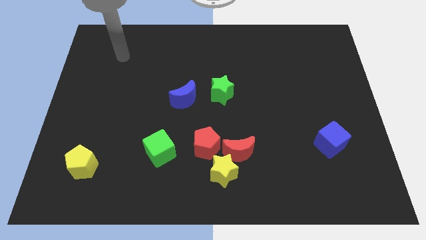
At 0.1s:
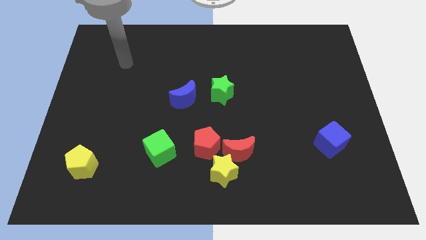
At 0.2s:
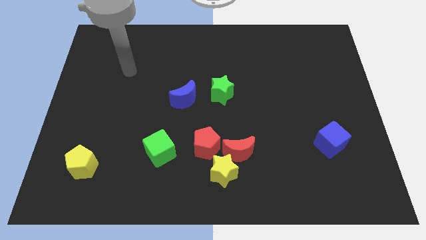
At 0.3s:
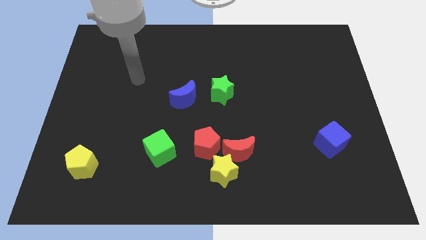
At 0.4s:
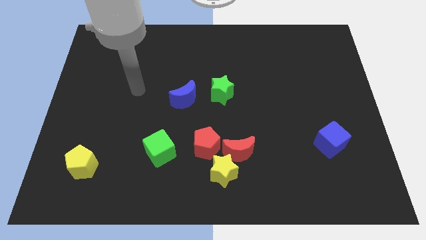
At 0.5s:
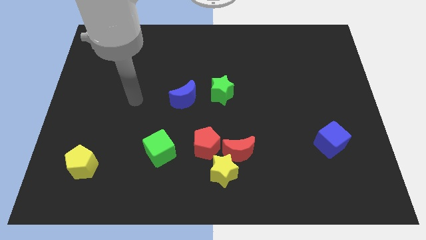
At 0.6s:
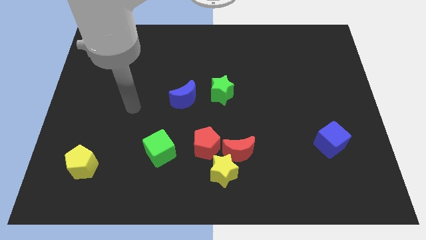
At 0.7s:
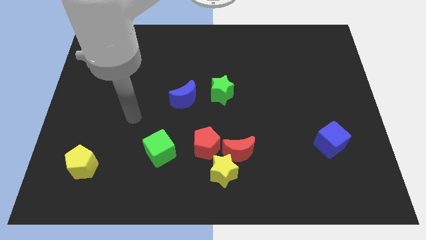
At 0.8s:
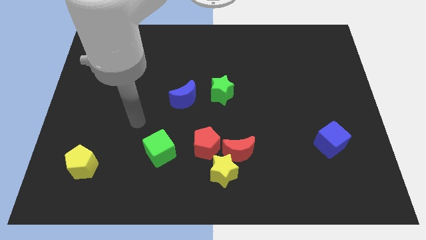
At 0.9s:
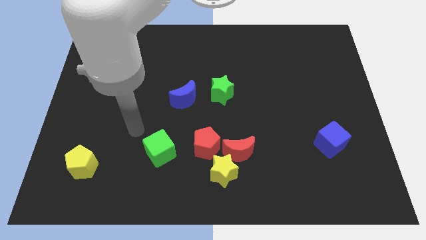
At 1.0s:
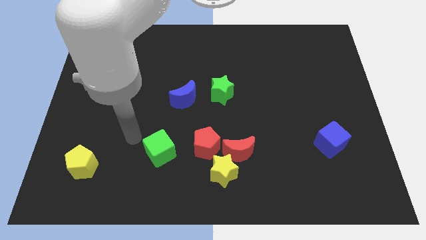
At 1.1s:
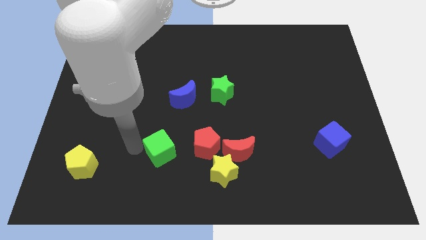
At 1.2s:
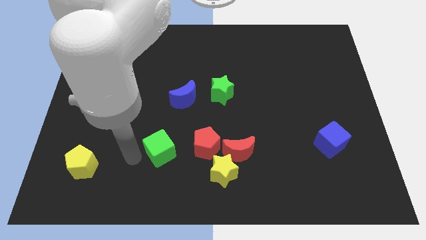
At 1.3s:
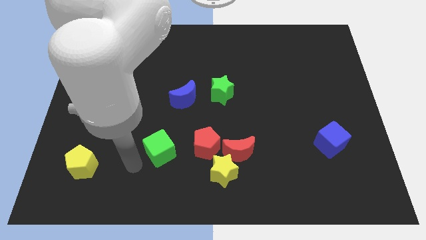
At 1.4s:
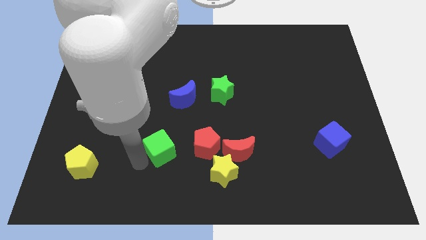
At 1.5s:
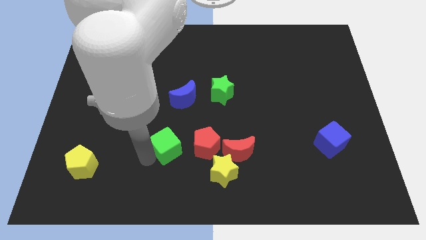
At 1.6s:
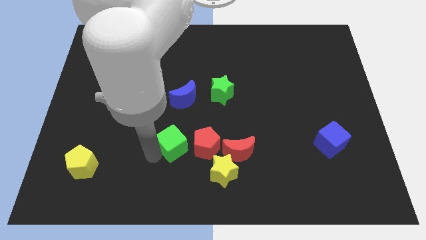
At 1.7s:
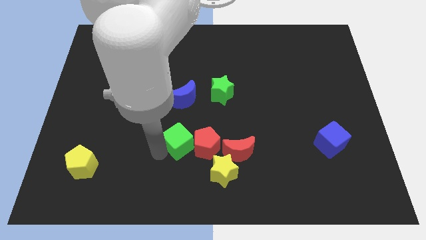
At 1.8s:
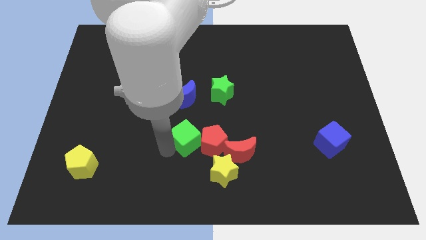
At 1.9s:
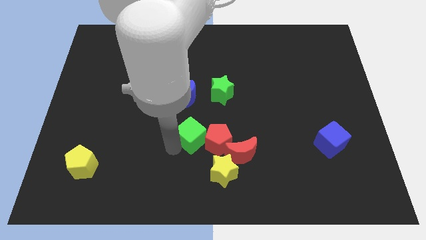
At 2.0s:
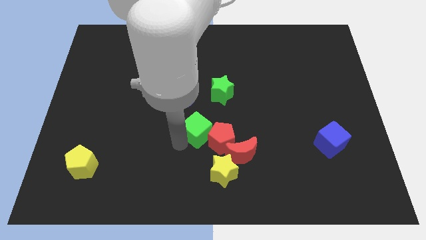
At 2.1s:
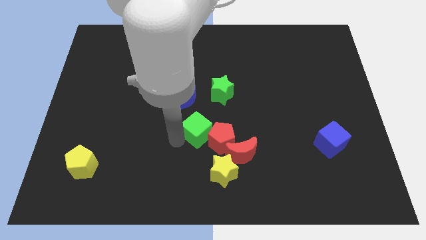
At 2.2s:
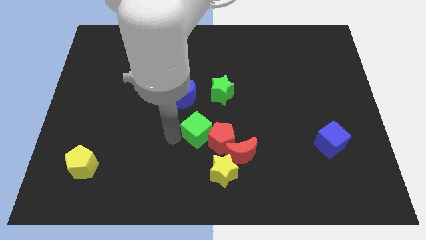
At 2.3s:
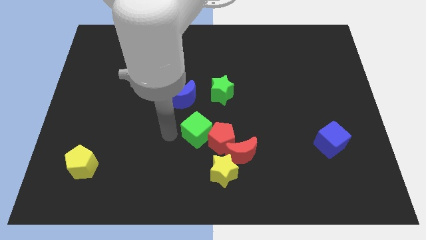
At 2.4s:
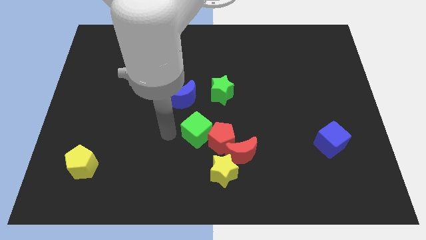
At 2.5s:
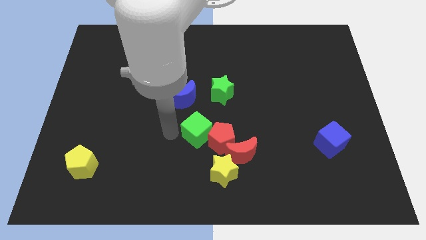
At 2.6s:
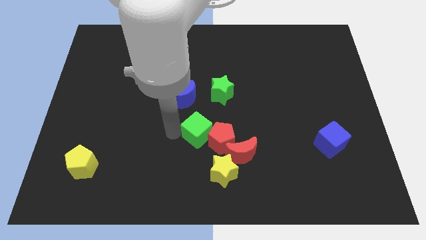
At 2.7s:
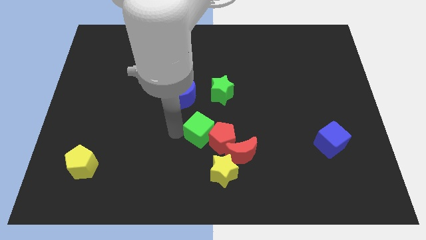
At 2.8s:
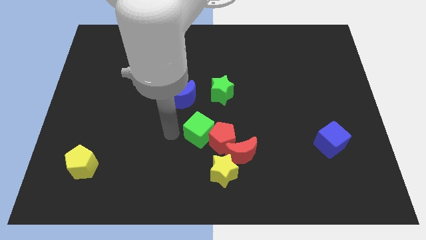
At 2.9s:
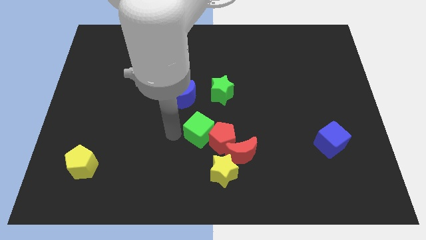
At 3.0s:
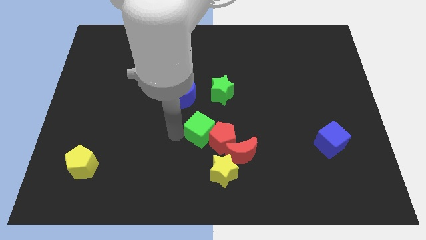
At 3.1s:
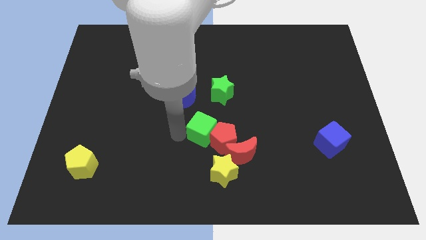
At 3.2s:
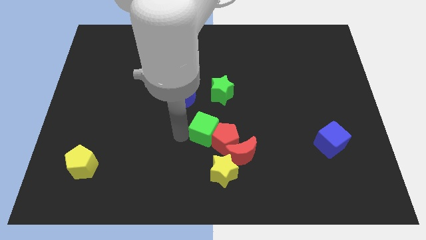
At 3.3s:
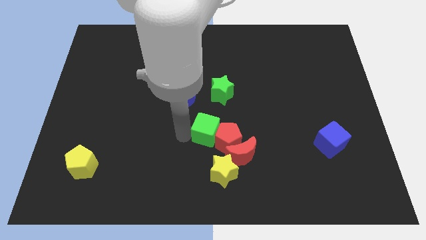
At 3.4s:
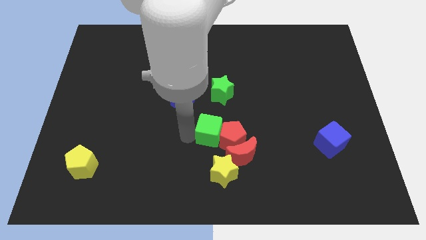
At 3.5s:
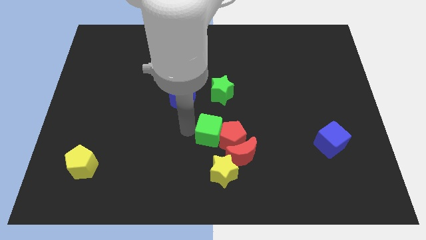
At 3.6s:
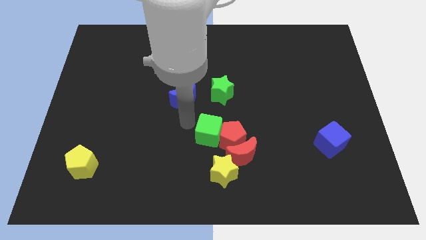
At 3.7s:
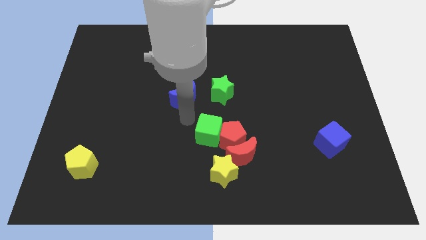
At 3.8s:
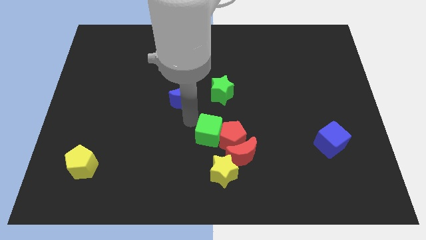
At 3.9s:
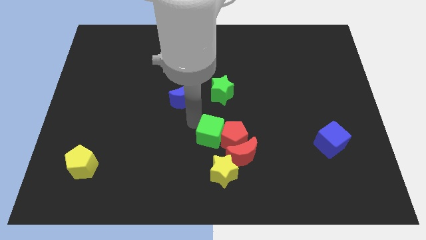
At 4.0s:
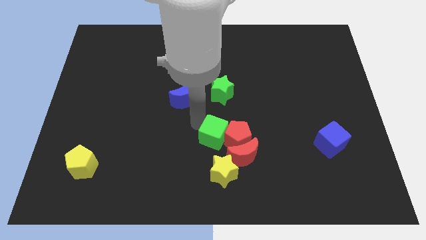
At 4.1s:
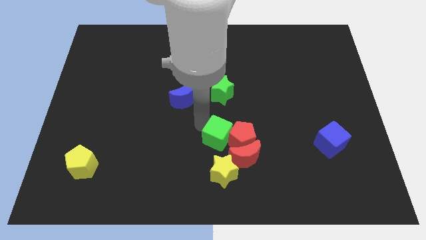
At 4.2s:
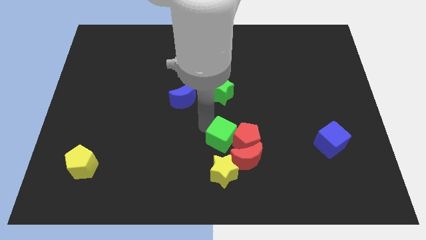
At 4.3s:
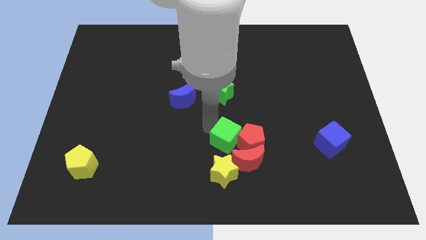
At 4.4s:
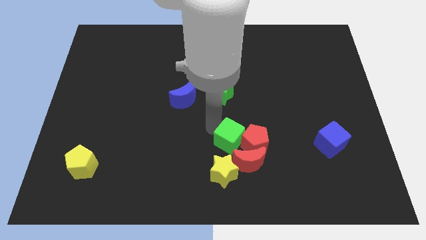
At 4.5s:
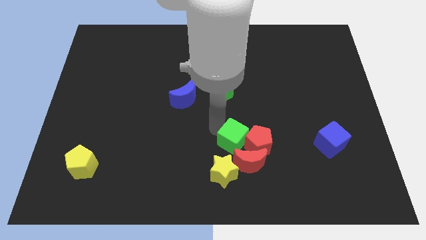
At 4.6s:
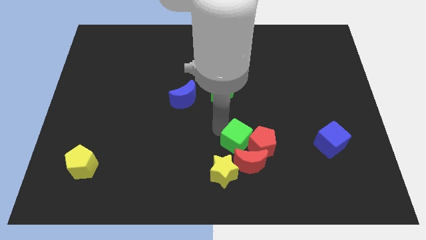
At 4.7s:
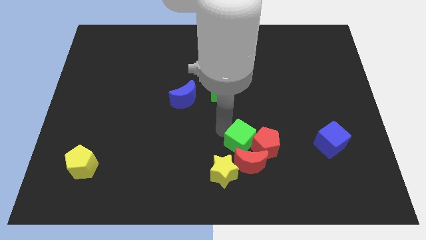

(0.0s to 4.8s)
push the green cube to the red moon

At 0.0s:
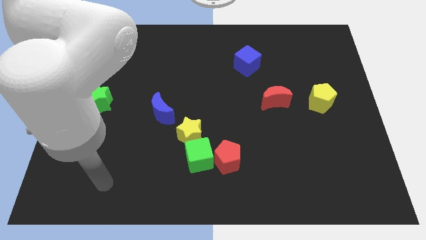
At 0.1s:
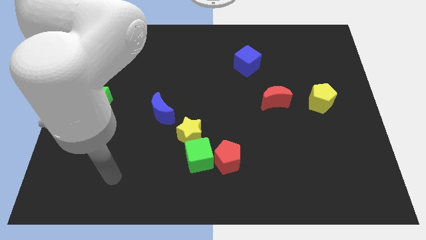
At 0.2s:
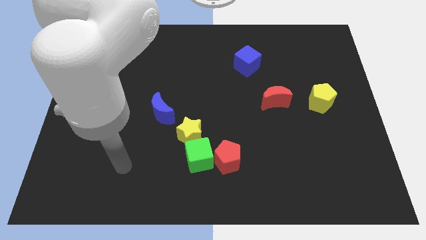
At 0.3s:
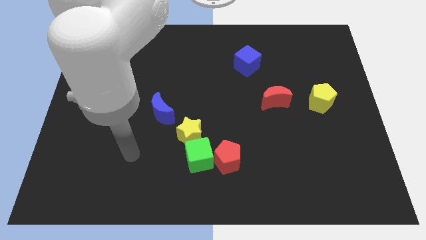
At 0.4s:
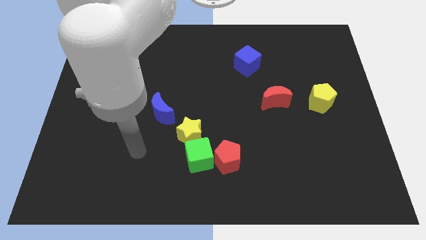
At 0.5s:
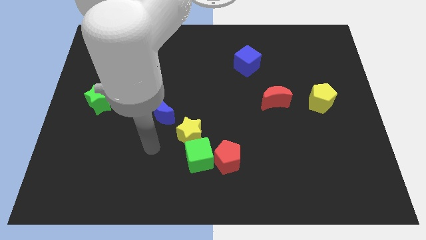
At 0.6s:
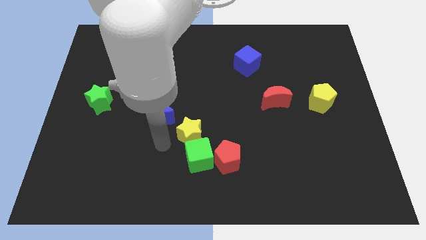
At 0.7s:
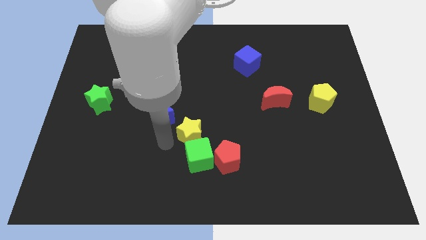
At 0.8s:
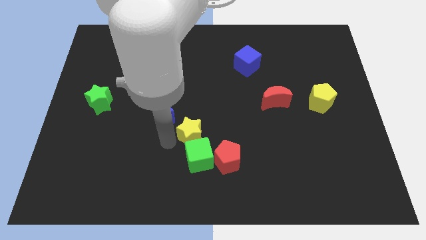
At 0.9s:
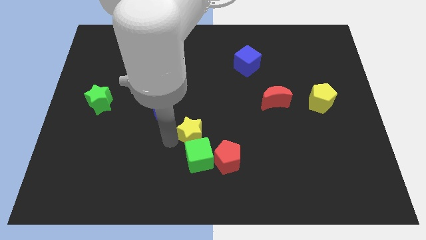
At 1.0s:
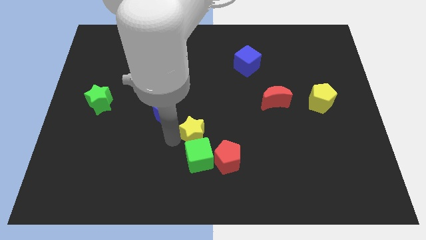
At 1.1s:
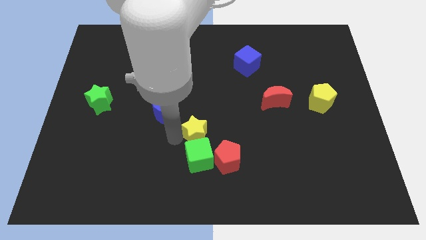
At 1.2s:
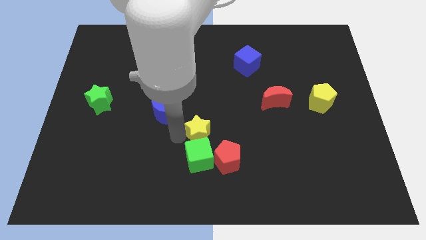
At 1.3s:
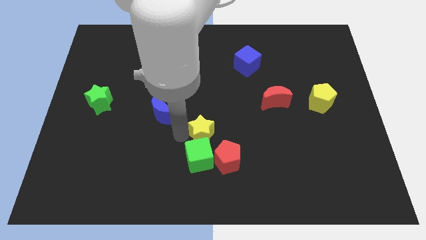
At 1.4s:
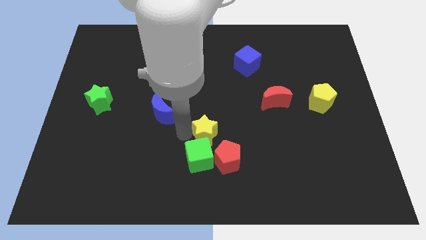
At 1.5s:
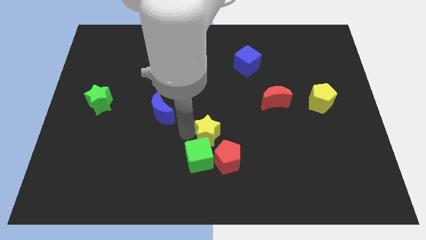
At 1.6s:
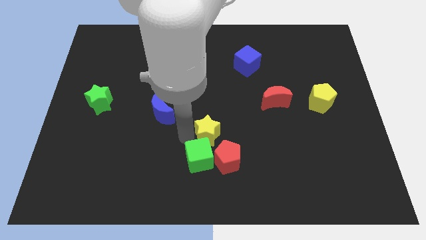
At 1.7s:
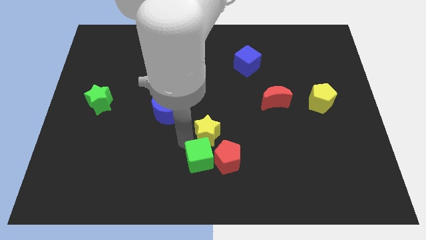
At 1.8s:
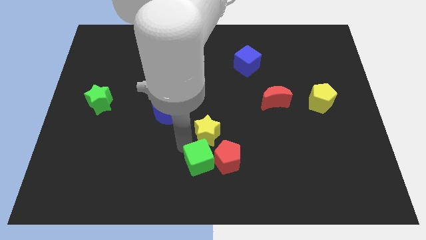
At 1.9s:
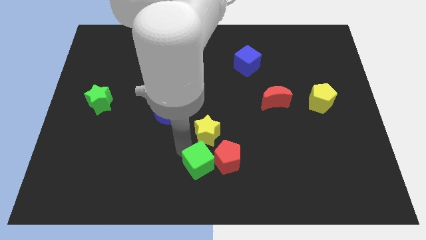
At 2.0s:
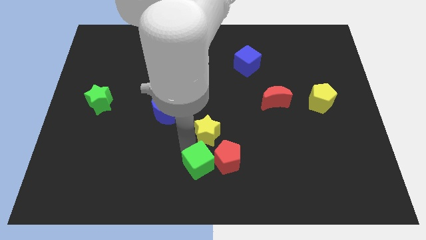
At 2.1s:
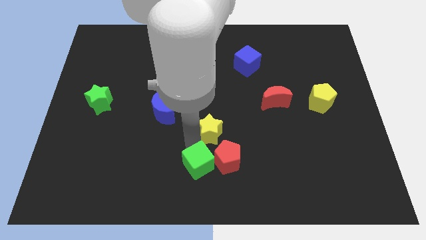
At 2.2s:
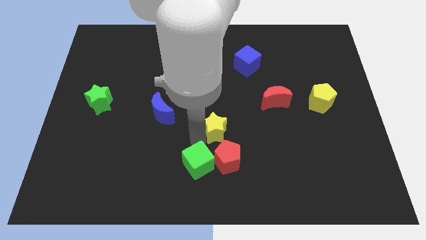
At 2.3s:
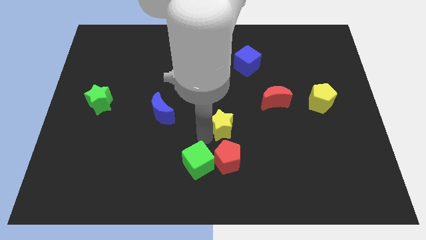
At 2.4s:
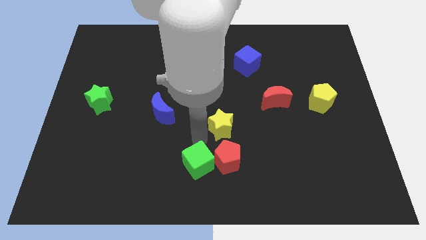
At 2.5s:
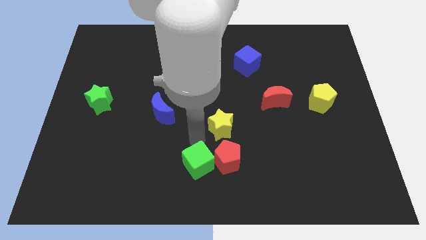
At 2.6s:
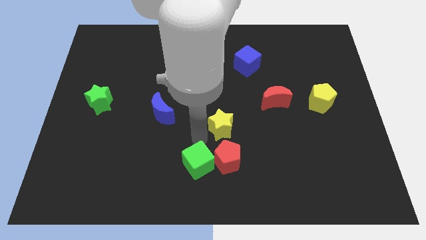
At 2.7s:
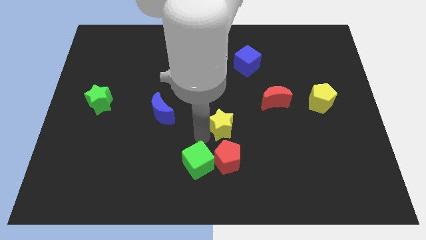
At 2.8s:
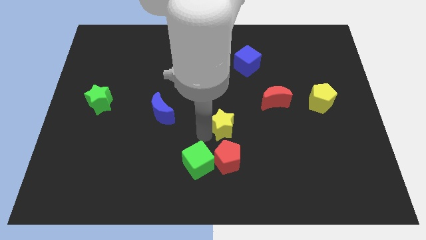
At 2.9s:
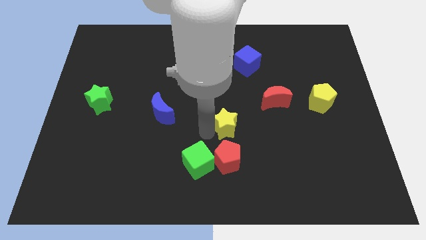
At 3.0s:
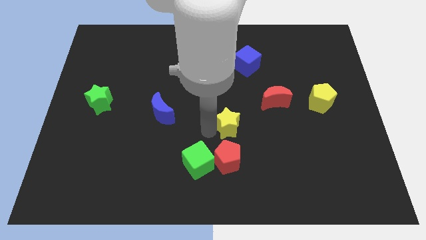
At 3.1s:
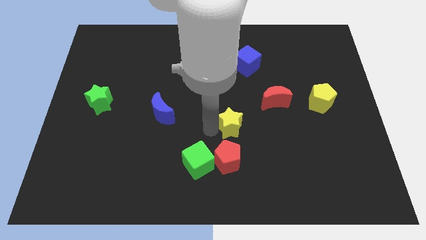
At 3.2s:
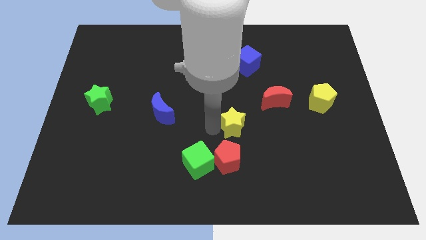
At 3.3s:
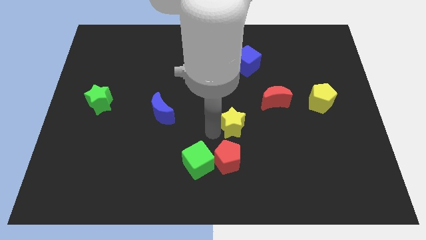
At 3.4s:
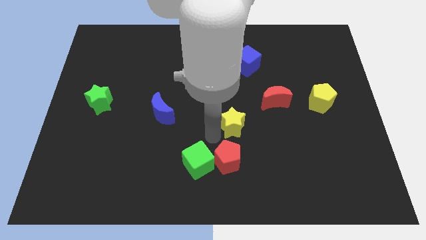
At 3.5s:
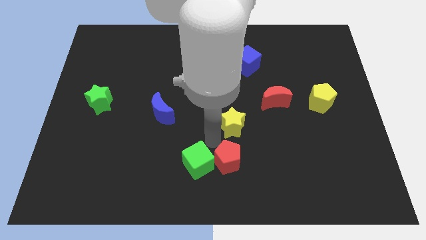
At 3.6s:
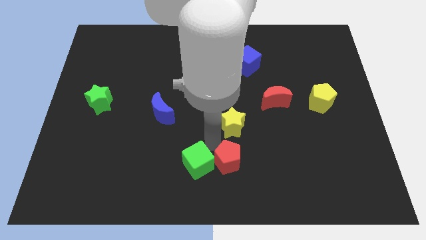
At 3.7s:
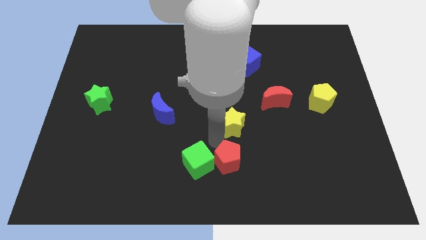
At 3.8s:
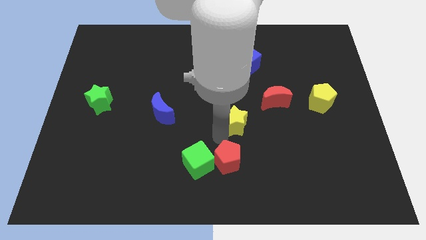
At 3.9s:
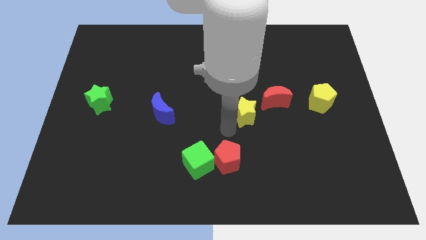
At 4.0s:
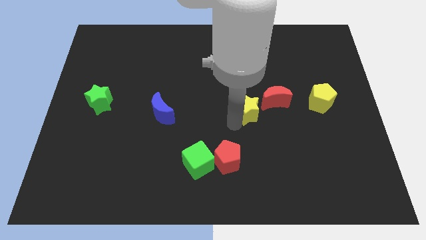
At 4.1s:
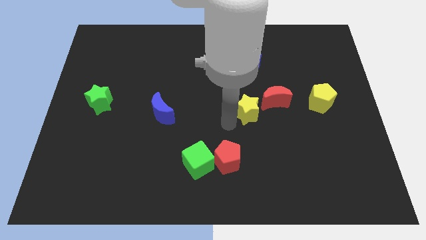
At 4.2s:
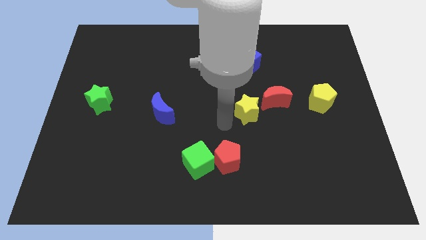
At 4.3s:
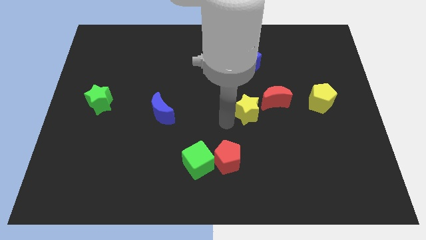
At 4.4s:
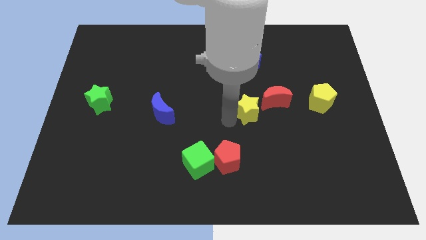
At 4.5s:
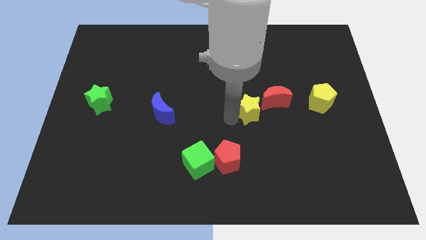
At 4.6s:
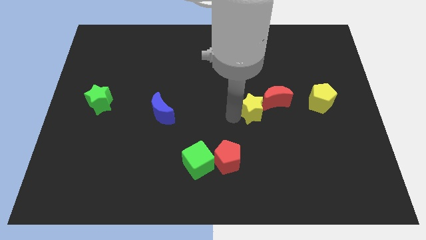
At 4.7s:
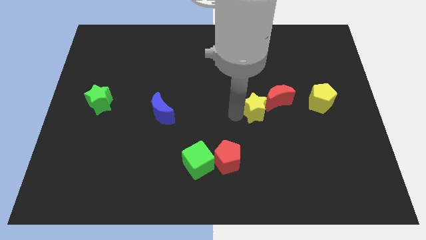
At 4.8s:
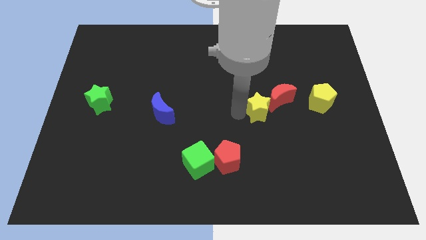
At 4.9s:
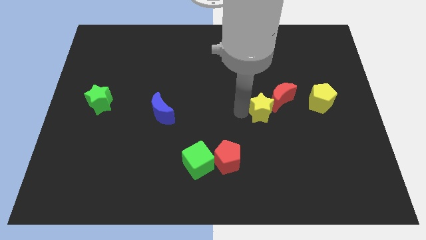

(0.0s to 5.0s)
push the yellow star to the red moon
